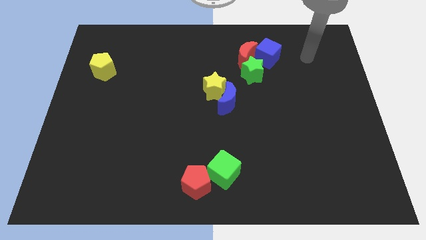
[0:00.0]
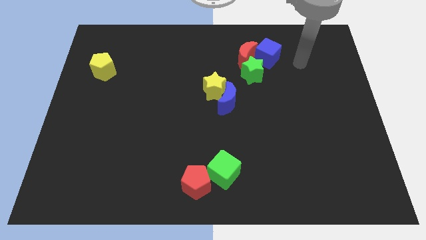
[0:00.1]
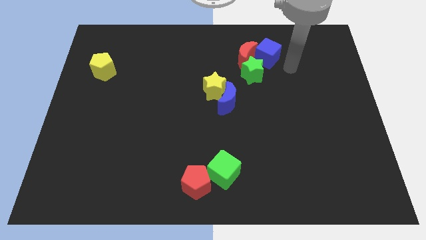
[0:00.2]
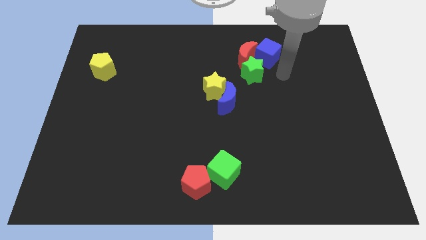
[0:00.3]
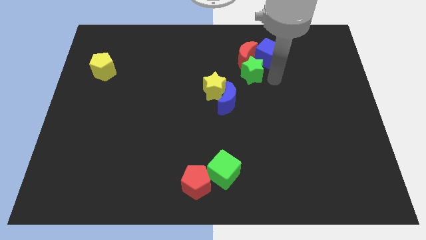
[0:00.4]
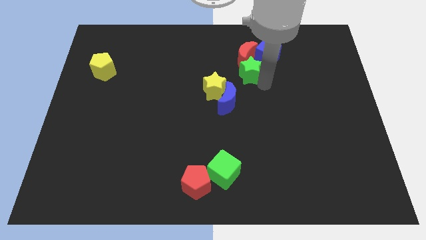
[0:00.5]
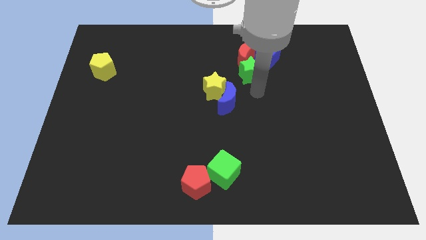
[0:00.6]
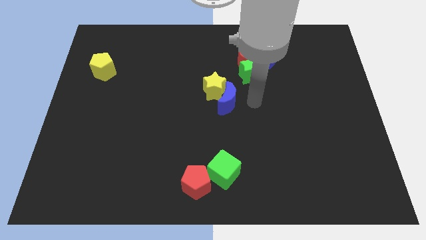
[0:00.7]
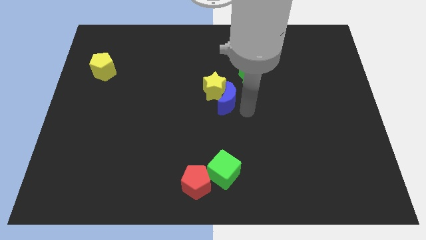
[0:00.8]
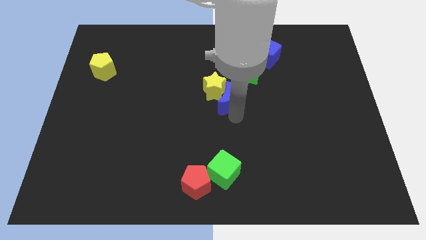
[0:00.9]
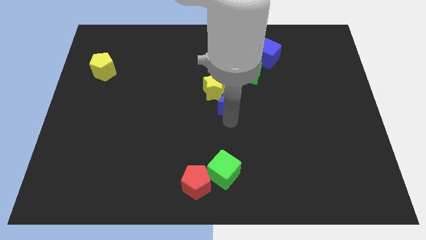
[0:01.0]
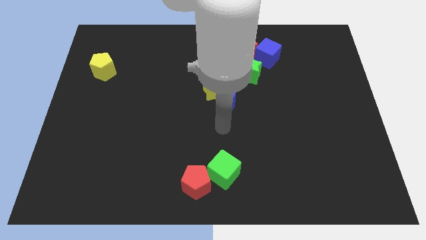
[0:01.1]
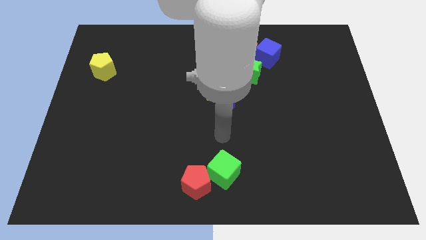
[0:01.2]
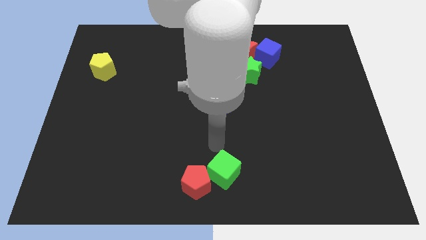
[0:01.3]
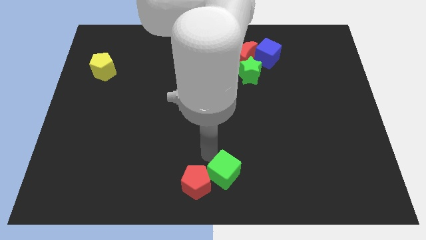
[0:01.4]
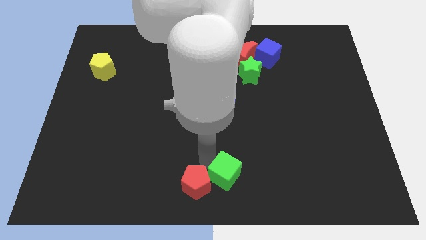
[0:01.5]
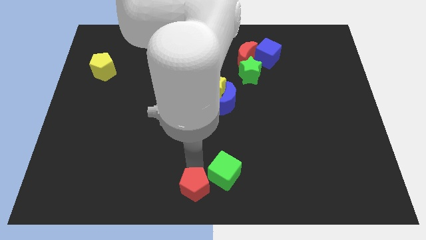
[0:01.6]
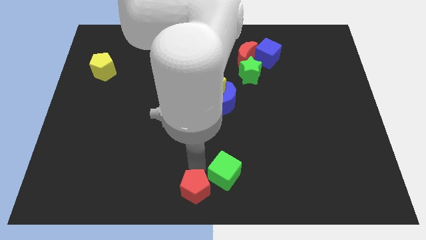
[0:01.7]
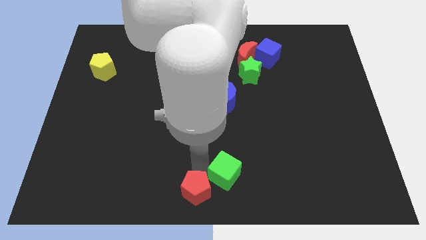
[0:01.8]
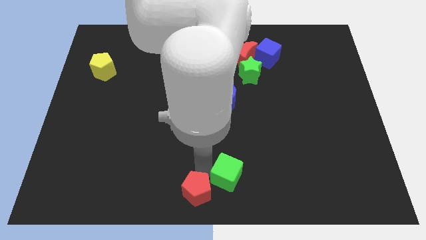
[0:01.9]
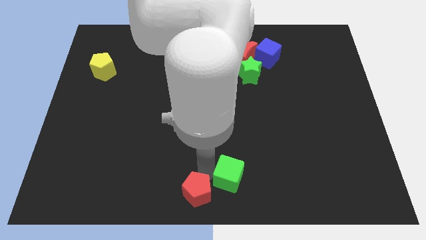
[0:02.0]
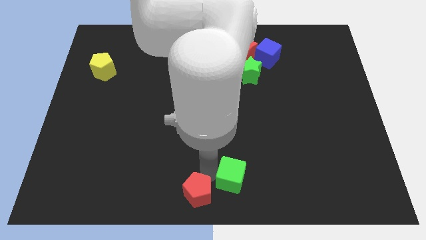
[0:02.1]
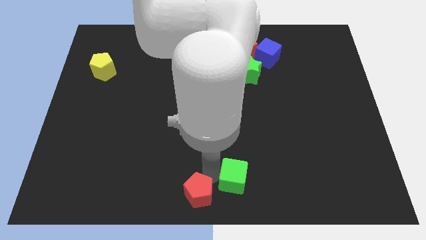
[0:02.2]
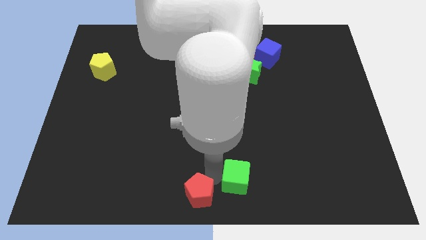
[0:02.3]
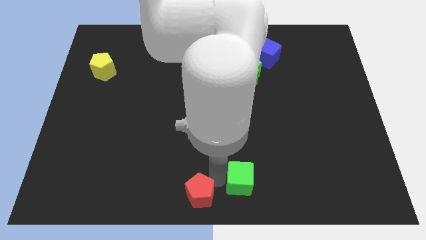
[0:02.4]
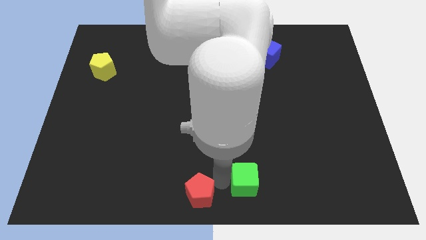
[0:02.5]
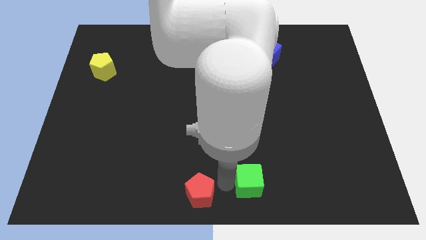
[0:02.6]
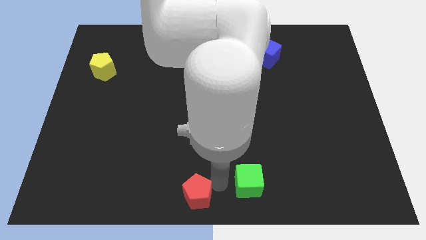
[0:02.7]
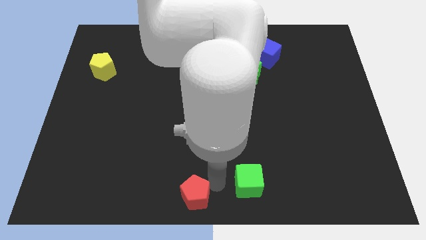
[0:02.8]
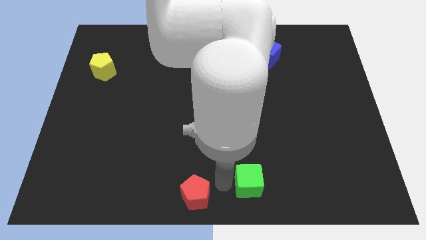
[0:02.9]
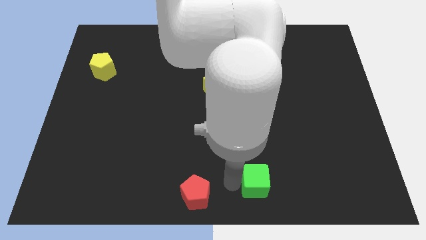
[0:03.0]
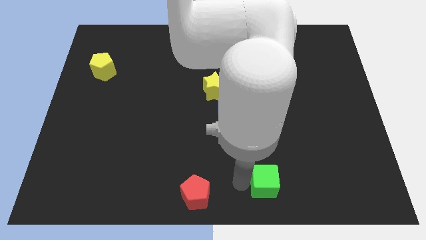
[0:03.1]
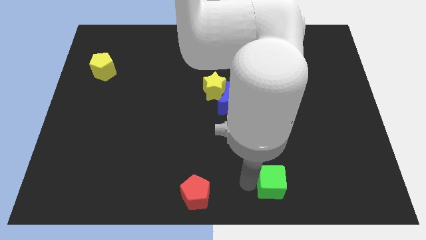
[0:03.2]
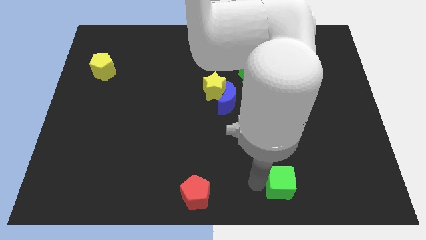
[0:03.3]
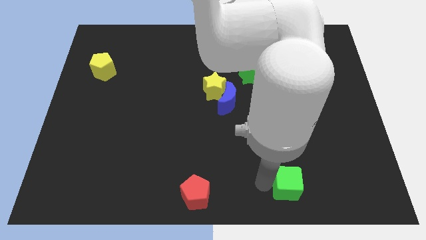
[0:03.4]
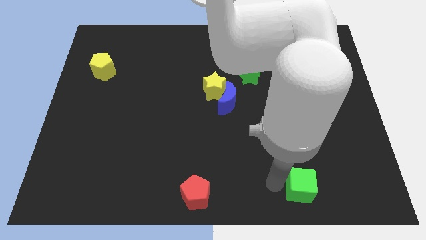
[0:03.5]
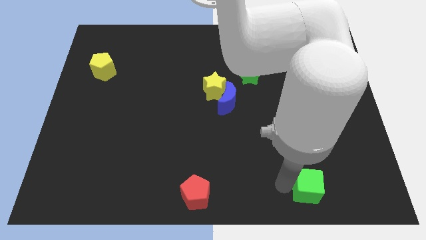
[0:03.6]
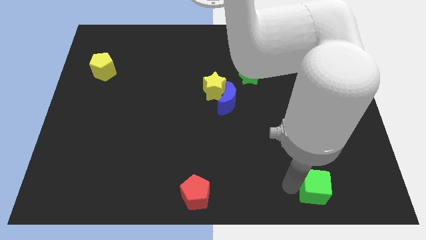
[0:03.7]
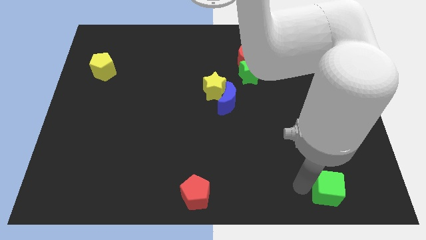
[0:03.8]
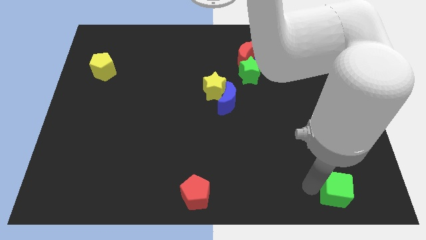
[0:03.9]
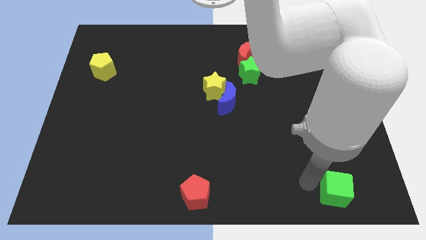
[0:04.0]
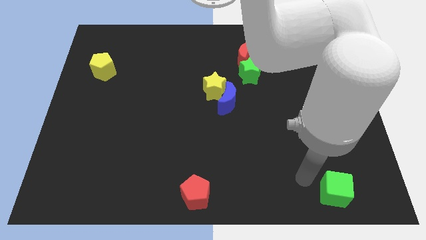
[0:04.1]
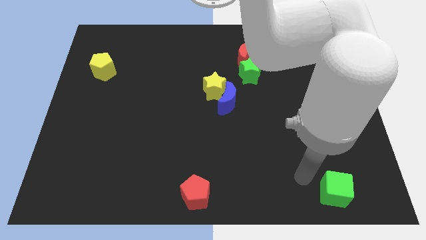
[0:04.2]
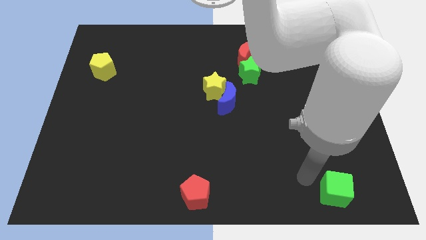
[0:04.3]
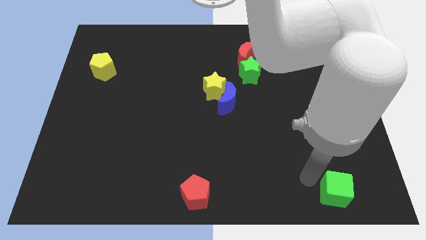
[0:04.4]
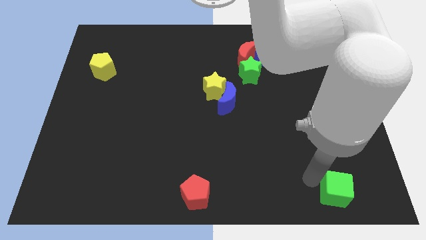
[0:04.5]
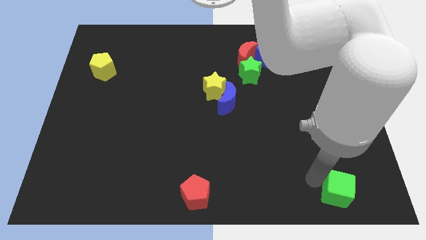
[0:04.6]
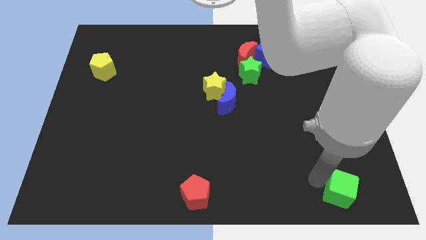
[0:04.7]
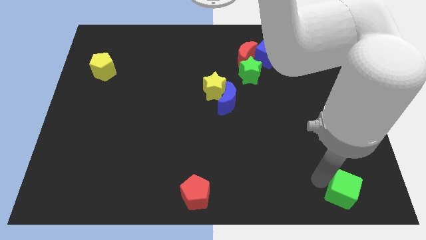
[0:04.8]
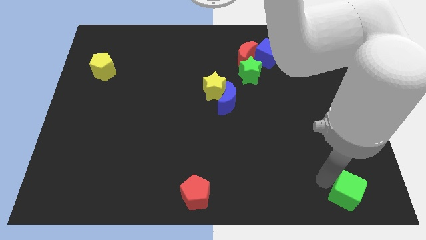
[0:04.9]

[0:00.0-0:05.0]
move the green cube to the bottom right

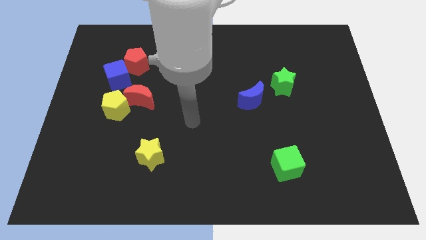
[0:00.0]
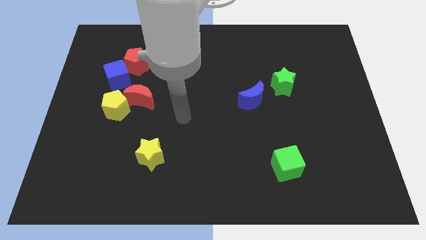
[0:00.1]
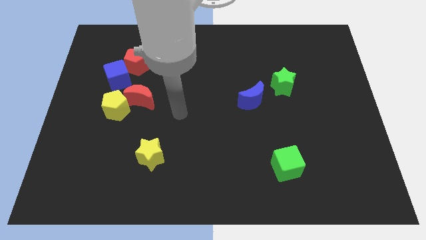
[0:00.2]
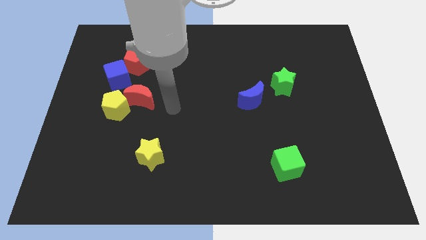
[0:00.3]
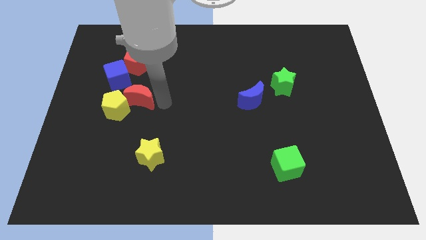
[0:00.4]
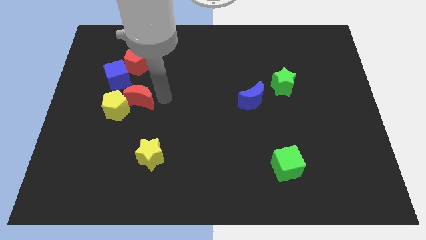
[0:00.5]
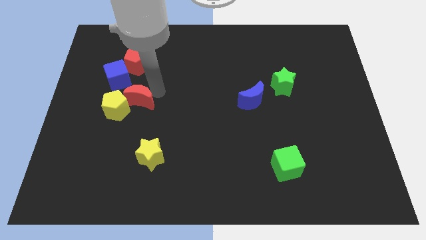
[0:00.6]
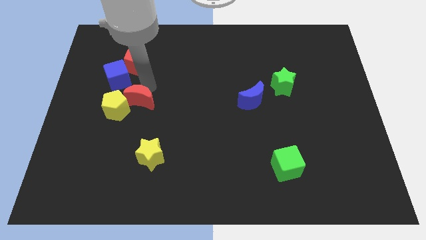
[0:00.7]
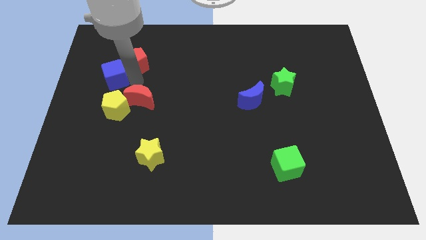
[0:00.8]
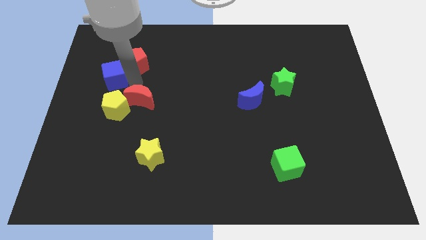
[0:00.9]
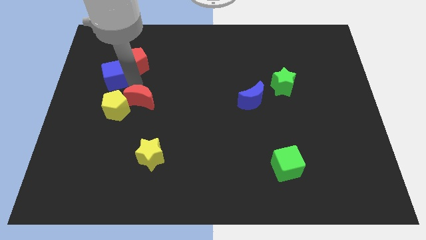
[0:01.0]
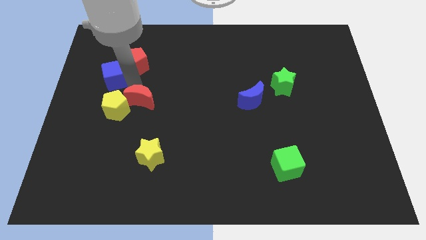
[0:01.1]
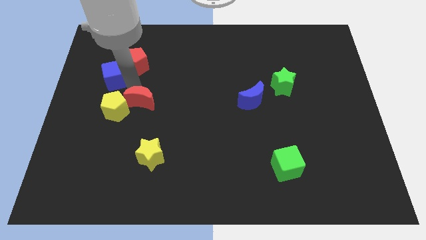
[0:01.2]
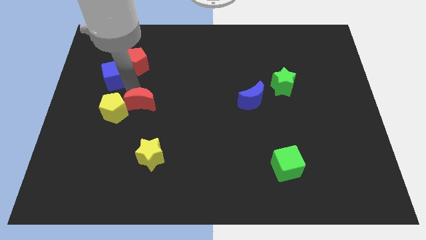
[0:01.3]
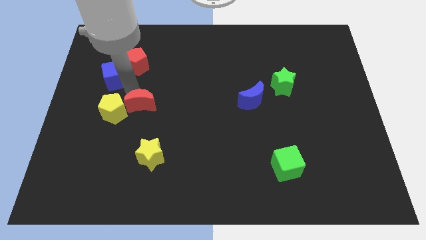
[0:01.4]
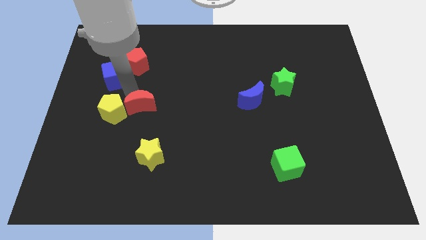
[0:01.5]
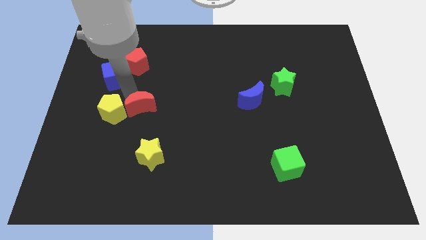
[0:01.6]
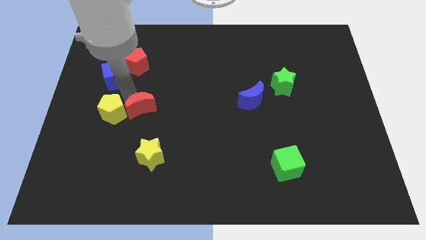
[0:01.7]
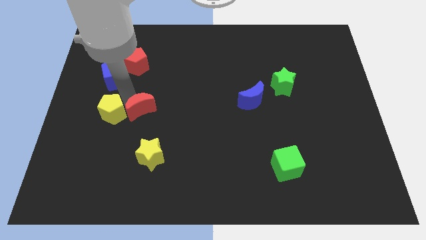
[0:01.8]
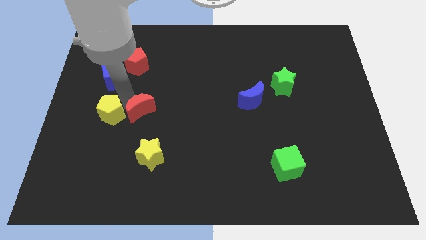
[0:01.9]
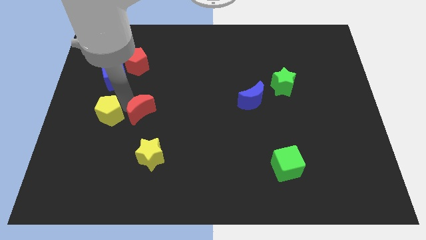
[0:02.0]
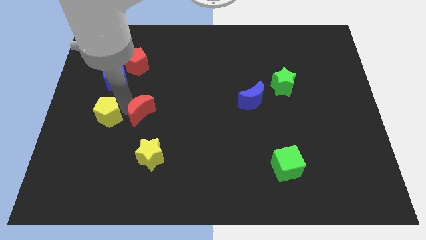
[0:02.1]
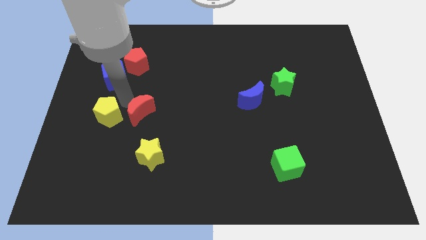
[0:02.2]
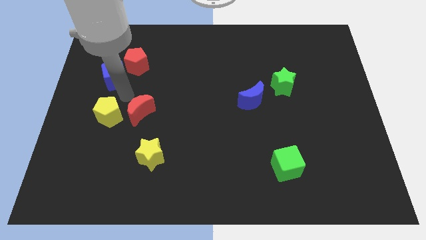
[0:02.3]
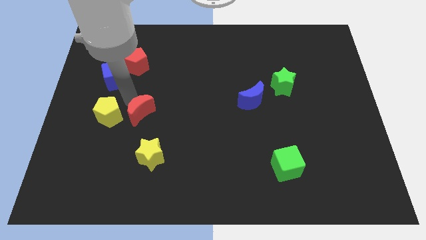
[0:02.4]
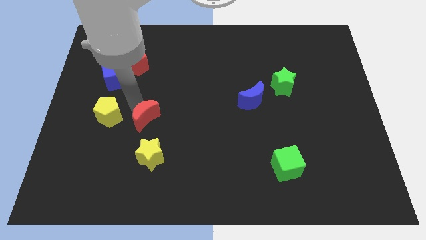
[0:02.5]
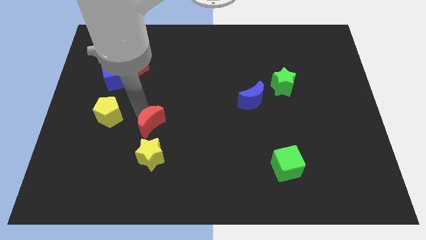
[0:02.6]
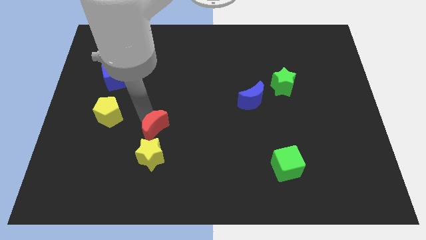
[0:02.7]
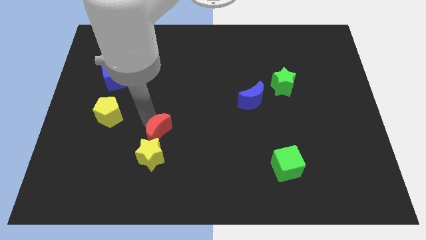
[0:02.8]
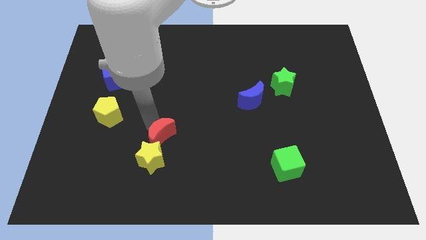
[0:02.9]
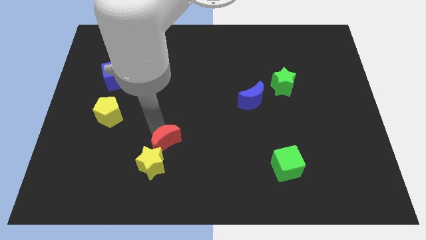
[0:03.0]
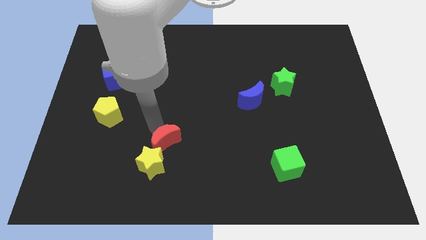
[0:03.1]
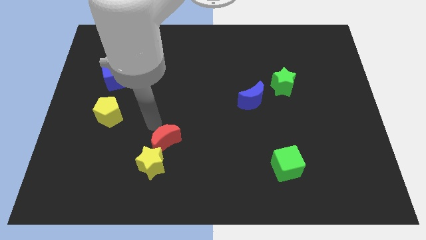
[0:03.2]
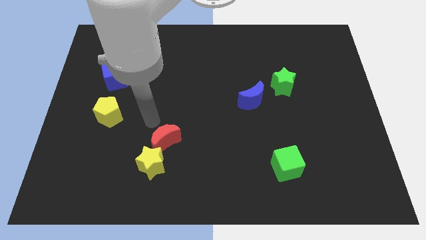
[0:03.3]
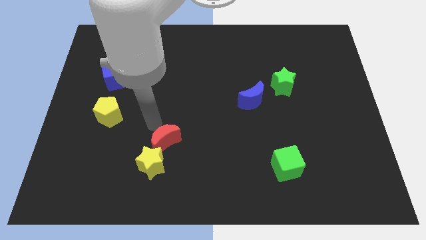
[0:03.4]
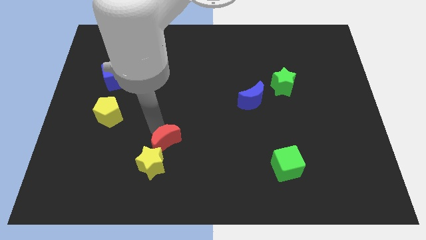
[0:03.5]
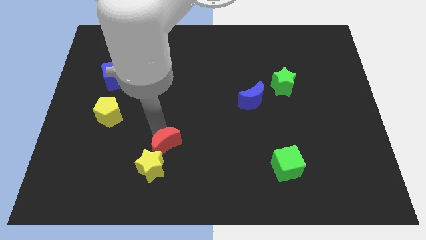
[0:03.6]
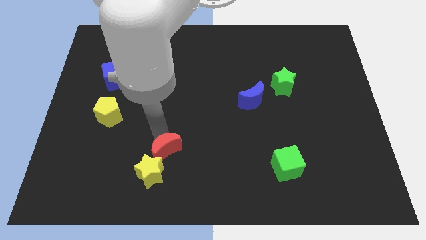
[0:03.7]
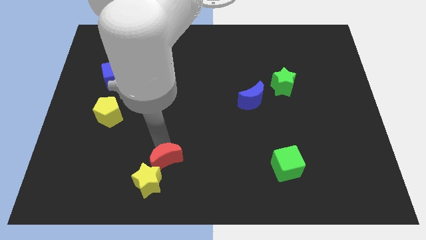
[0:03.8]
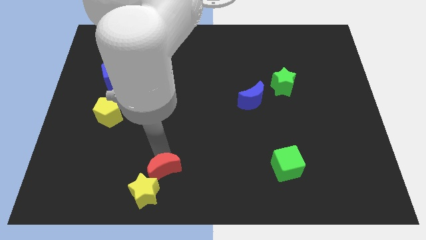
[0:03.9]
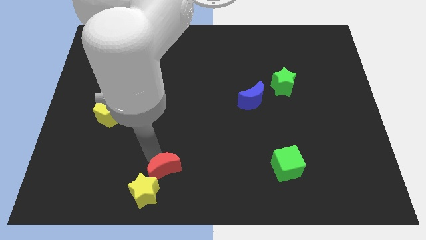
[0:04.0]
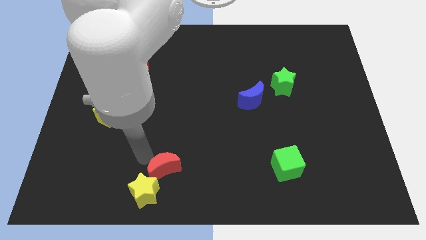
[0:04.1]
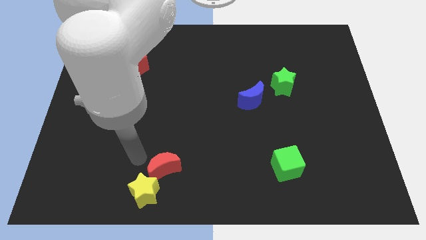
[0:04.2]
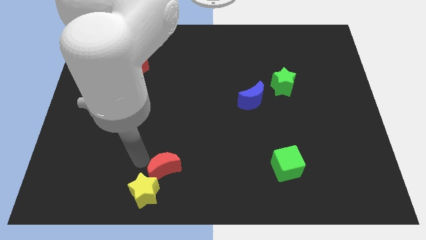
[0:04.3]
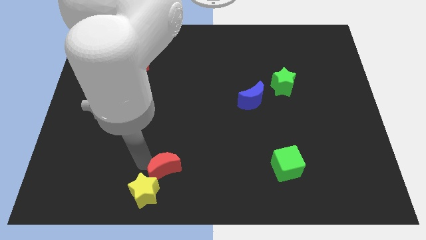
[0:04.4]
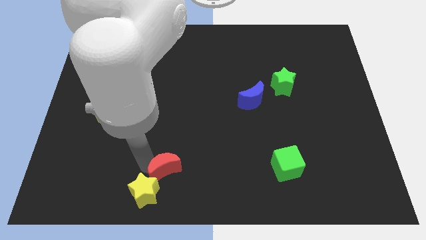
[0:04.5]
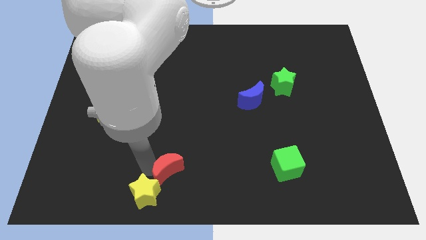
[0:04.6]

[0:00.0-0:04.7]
push the red moon to the bottom
